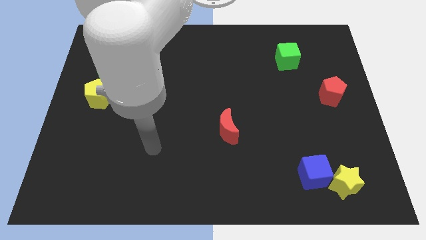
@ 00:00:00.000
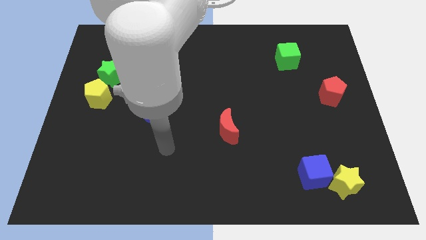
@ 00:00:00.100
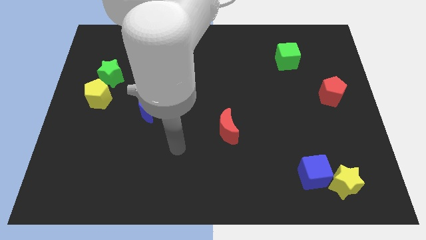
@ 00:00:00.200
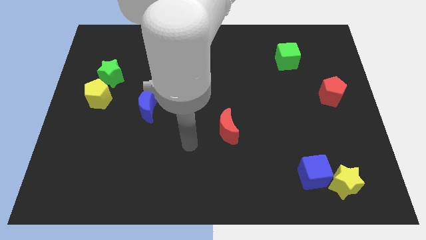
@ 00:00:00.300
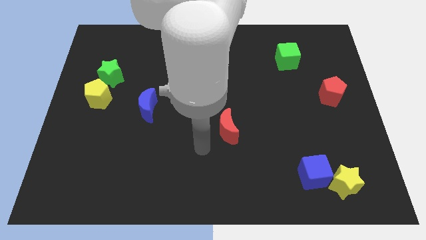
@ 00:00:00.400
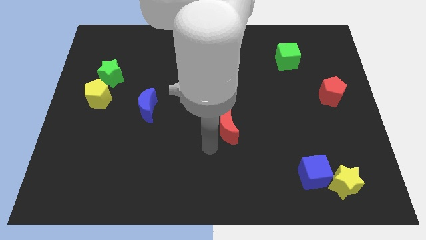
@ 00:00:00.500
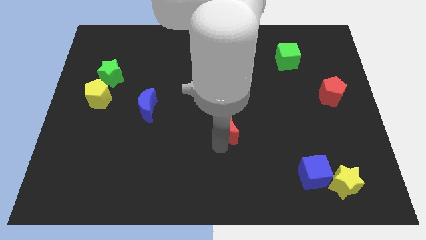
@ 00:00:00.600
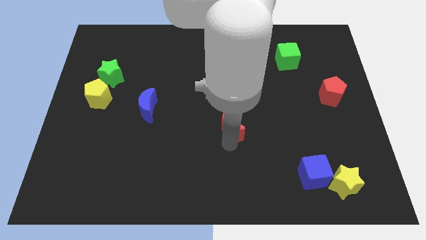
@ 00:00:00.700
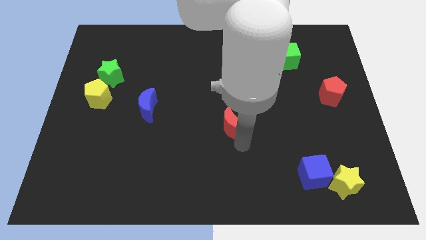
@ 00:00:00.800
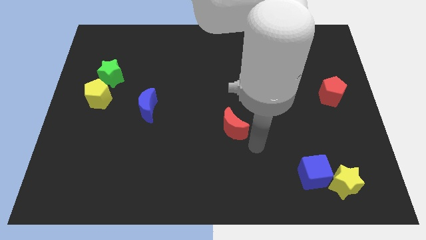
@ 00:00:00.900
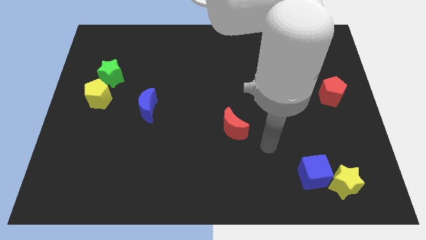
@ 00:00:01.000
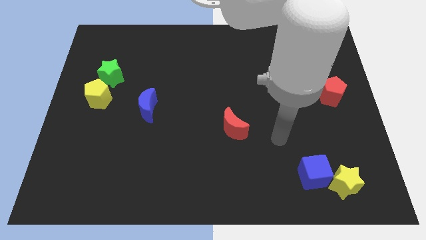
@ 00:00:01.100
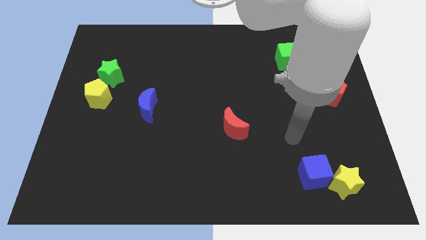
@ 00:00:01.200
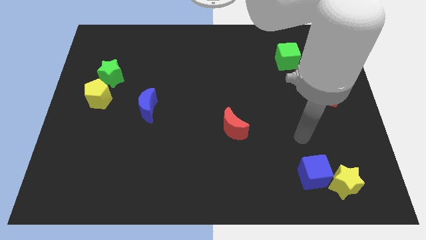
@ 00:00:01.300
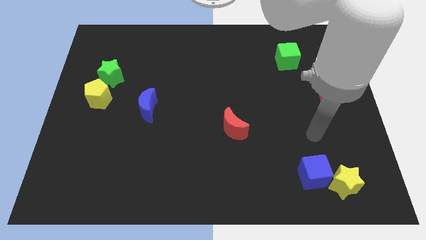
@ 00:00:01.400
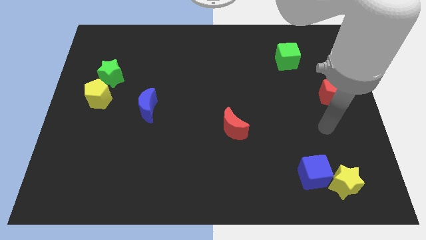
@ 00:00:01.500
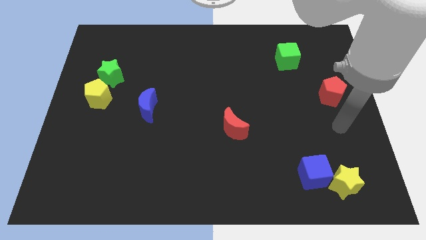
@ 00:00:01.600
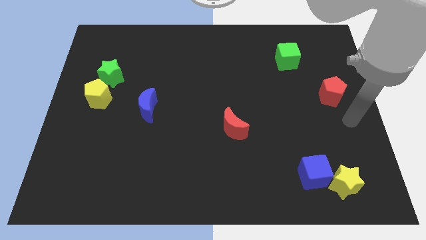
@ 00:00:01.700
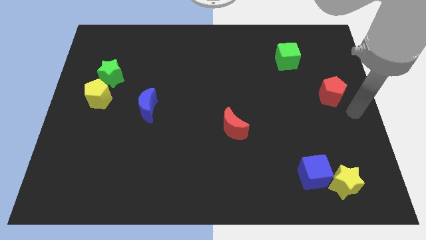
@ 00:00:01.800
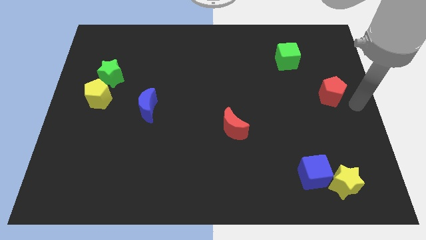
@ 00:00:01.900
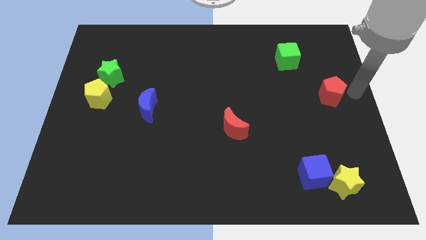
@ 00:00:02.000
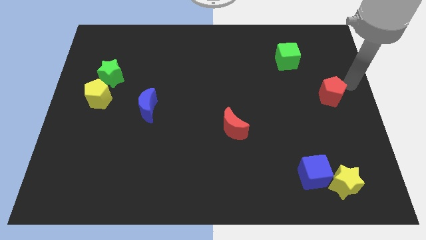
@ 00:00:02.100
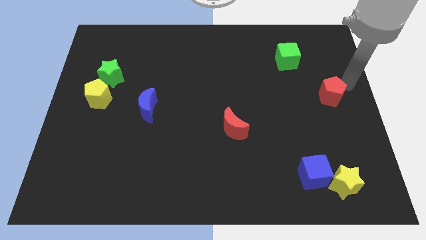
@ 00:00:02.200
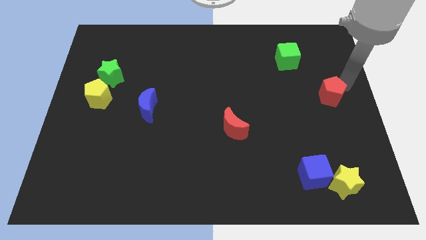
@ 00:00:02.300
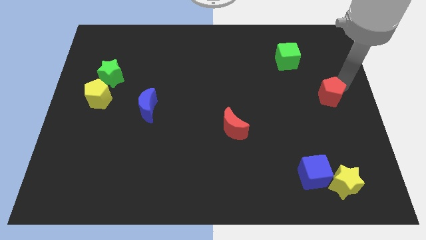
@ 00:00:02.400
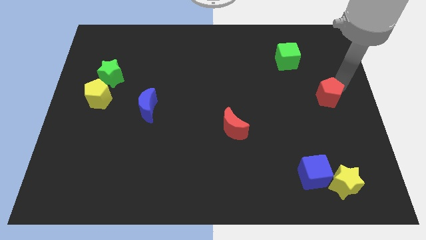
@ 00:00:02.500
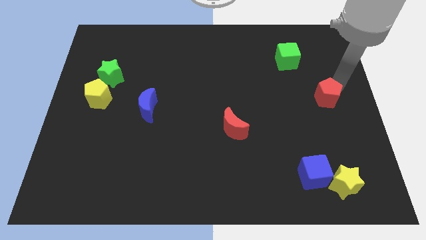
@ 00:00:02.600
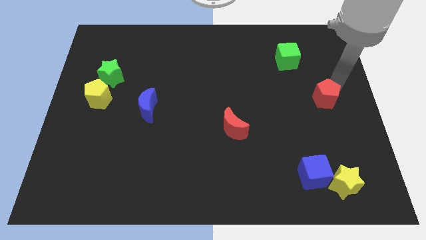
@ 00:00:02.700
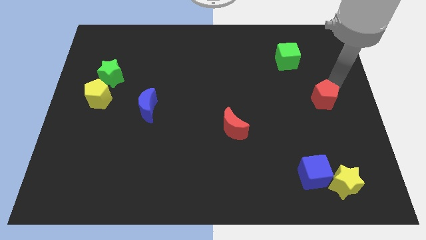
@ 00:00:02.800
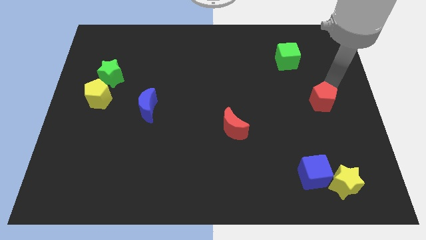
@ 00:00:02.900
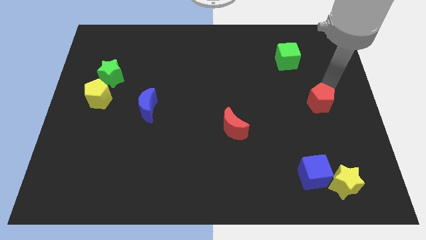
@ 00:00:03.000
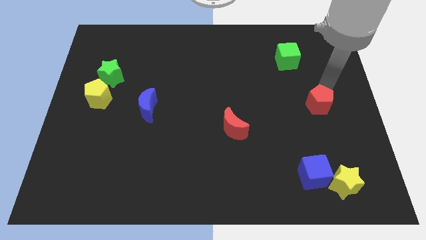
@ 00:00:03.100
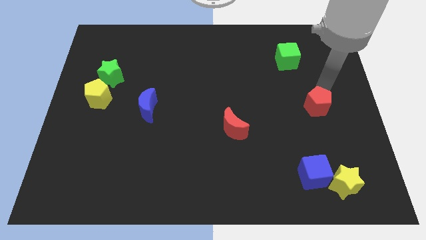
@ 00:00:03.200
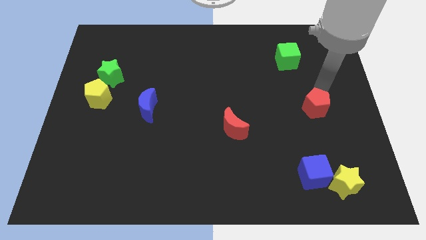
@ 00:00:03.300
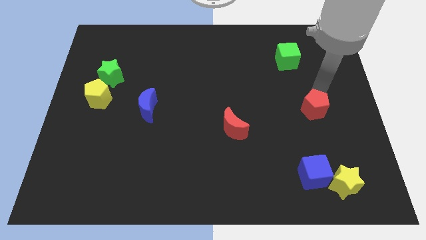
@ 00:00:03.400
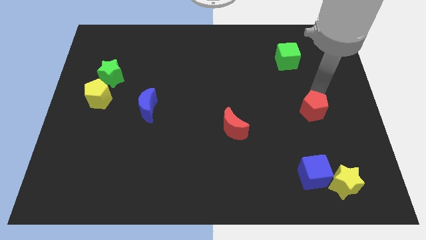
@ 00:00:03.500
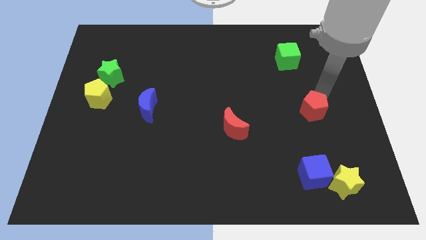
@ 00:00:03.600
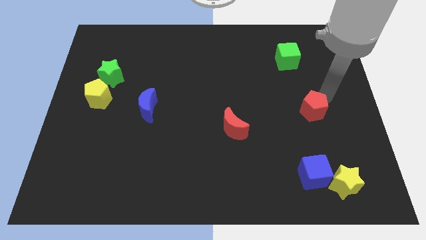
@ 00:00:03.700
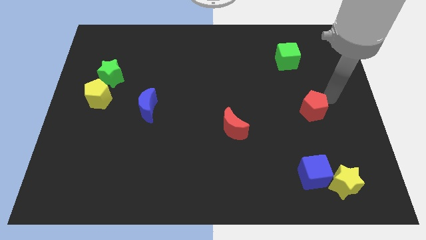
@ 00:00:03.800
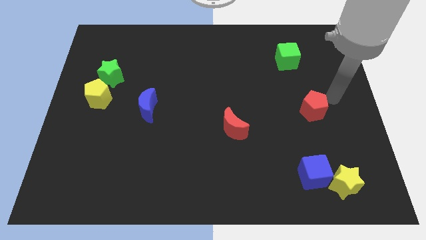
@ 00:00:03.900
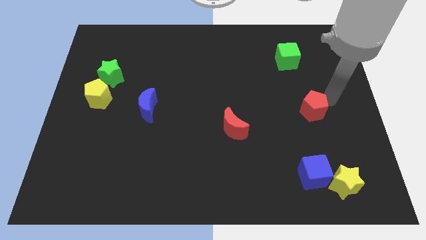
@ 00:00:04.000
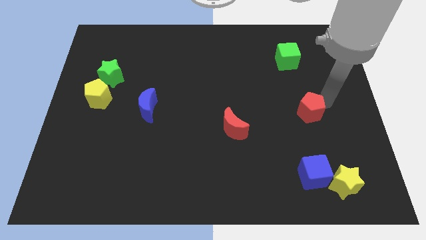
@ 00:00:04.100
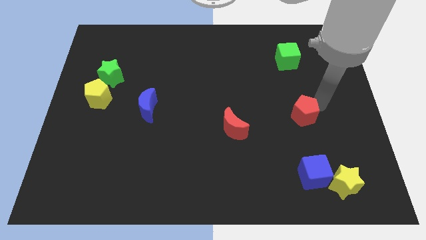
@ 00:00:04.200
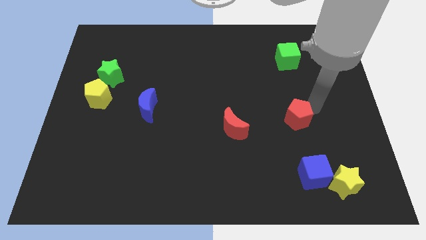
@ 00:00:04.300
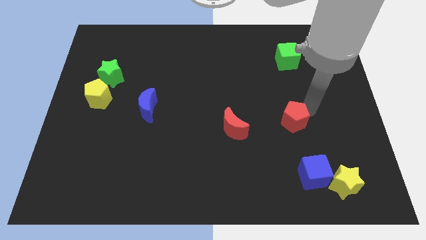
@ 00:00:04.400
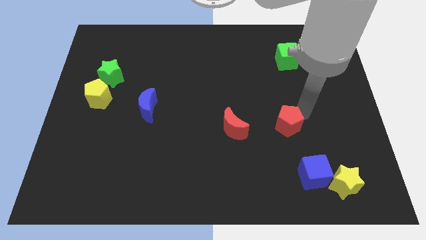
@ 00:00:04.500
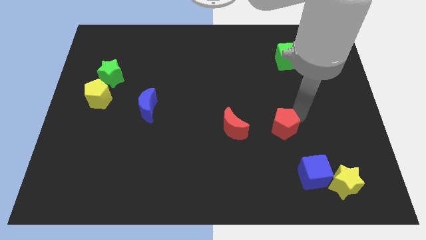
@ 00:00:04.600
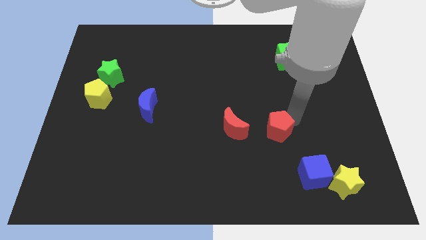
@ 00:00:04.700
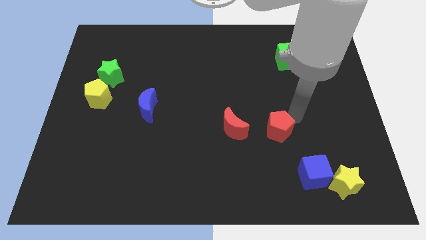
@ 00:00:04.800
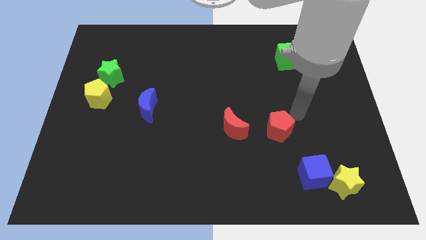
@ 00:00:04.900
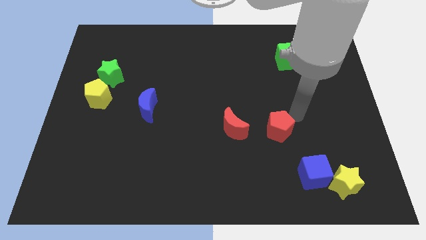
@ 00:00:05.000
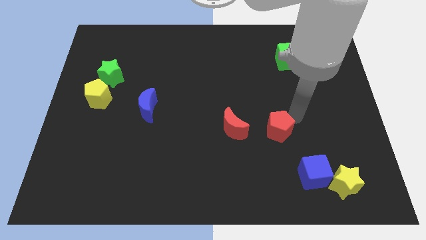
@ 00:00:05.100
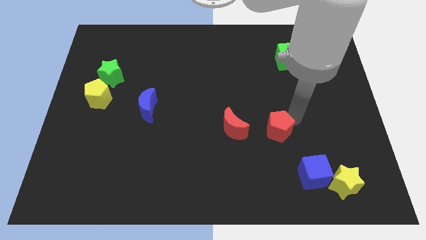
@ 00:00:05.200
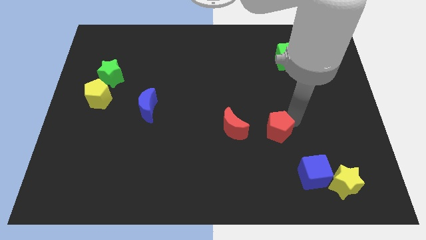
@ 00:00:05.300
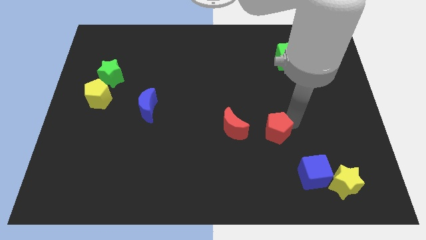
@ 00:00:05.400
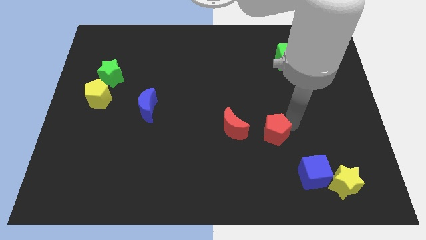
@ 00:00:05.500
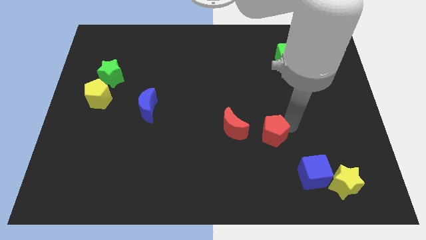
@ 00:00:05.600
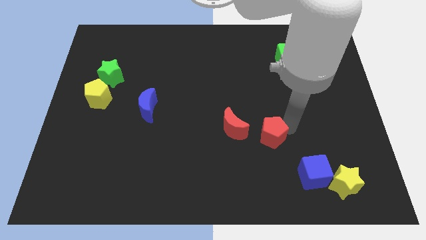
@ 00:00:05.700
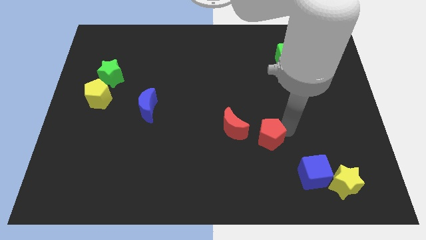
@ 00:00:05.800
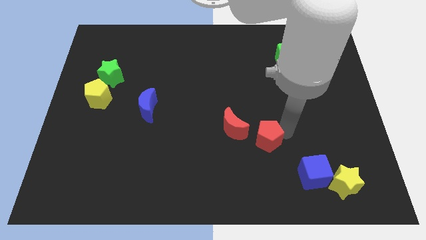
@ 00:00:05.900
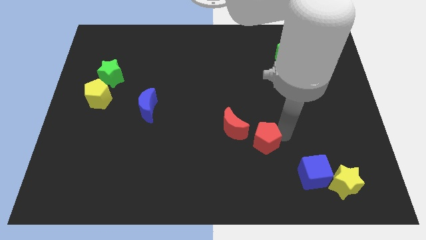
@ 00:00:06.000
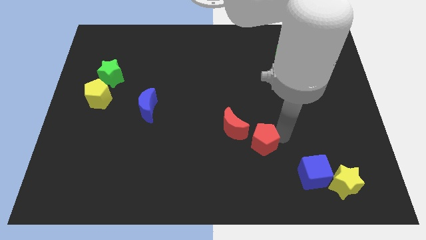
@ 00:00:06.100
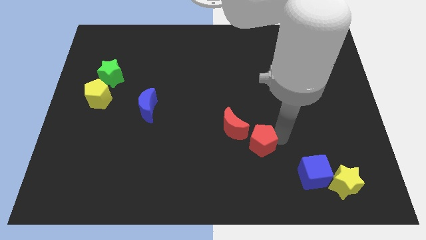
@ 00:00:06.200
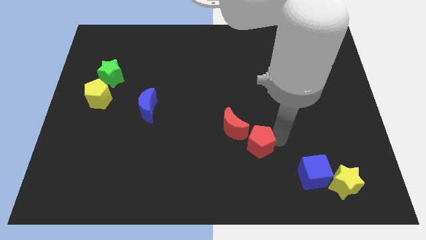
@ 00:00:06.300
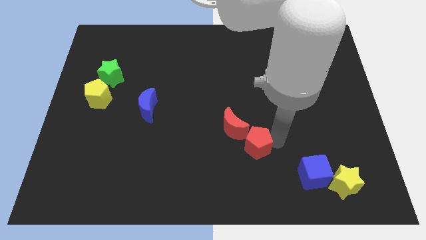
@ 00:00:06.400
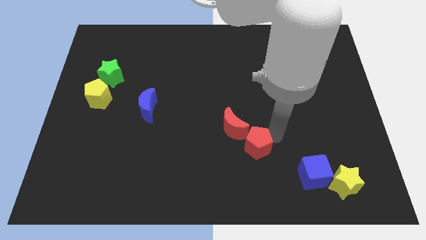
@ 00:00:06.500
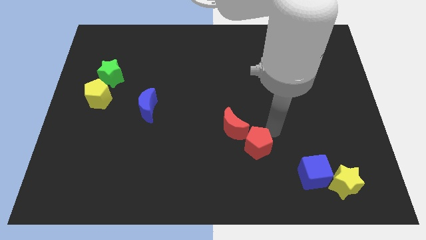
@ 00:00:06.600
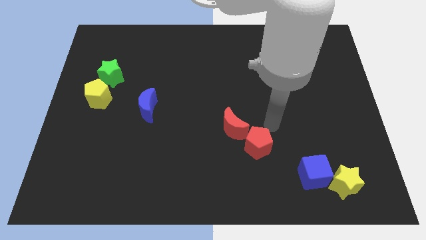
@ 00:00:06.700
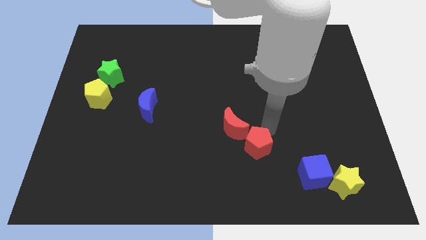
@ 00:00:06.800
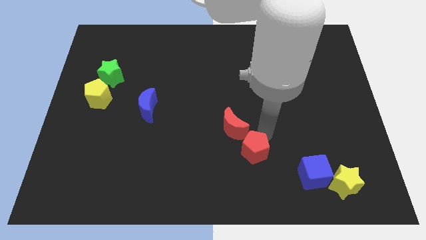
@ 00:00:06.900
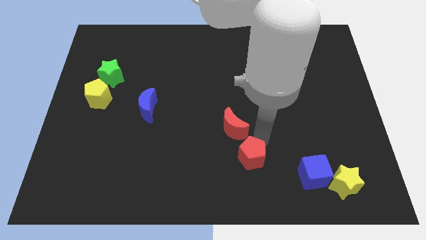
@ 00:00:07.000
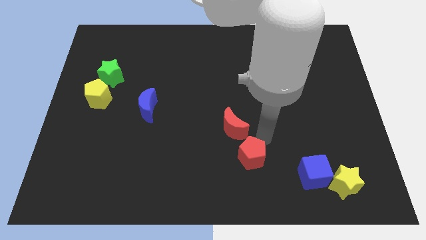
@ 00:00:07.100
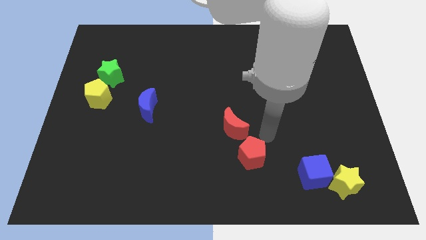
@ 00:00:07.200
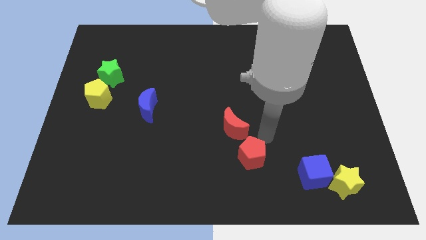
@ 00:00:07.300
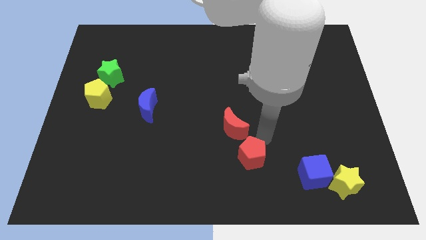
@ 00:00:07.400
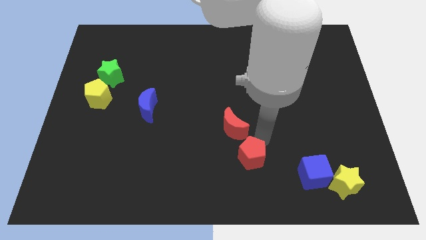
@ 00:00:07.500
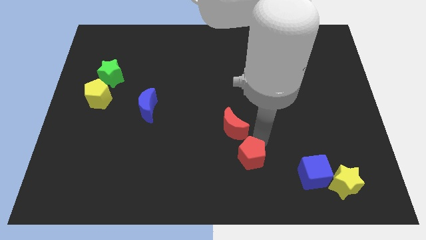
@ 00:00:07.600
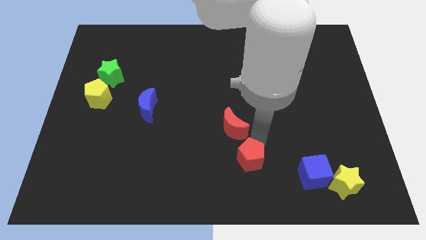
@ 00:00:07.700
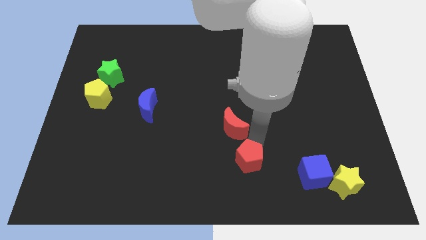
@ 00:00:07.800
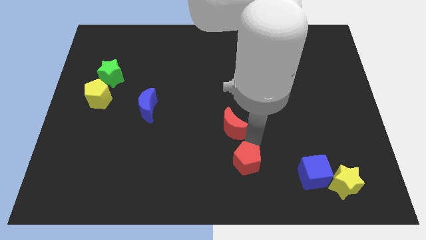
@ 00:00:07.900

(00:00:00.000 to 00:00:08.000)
move the red pentagon to the bottom side
